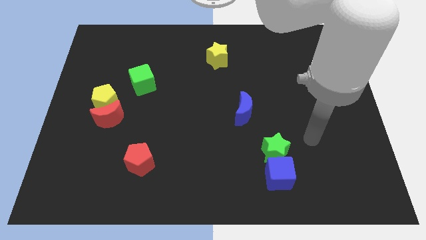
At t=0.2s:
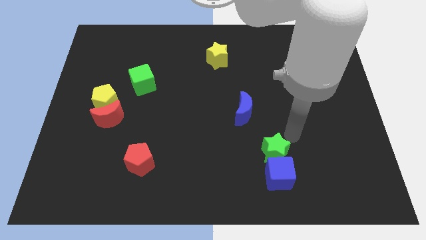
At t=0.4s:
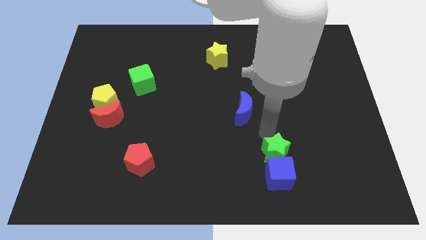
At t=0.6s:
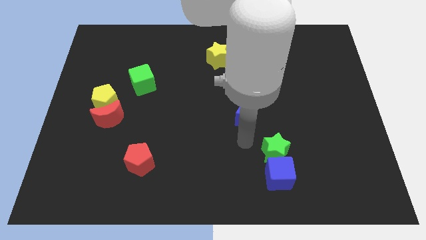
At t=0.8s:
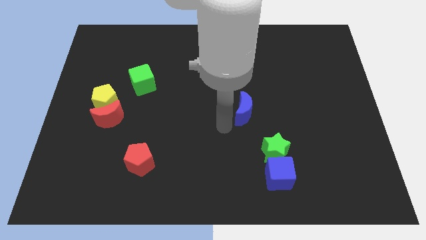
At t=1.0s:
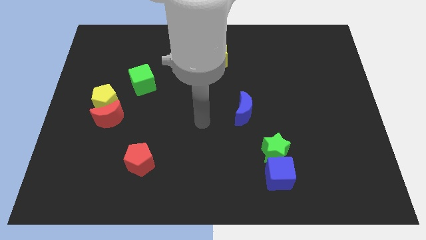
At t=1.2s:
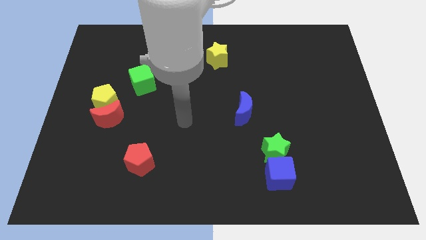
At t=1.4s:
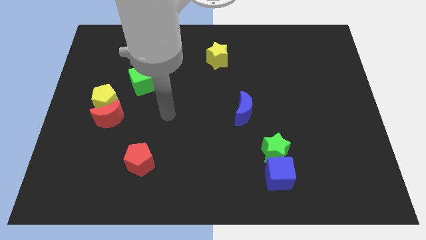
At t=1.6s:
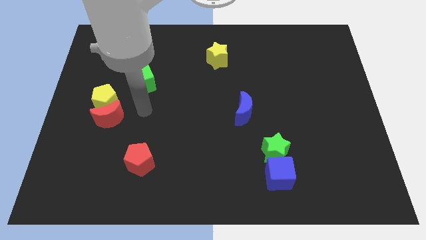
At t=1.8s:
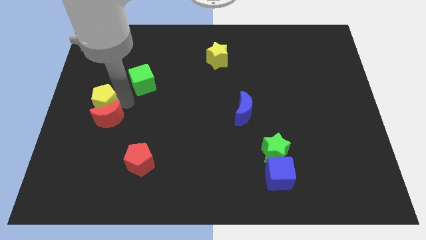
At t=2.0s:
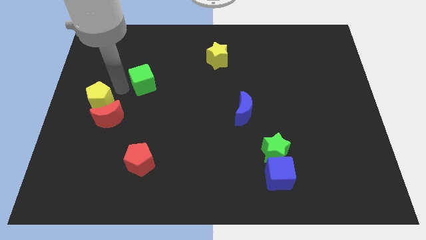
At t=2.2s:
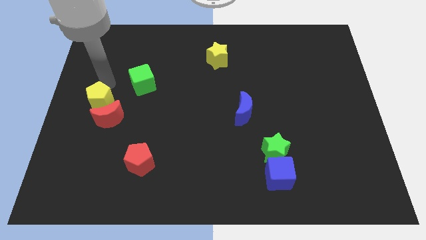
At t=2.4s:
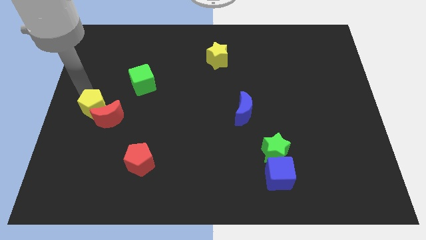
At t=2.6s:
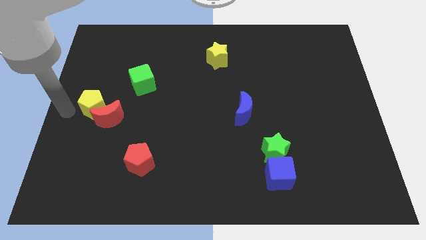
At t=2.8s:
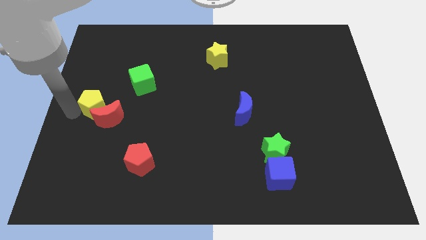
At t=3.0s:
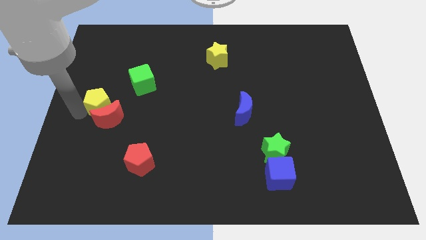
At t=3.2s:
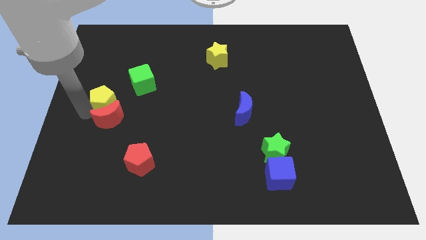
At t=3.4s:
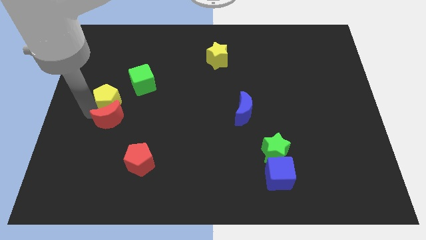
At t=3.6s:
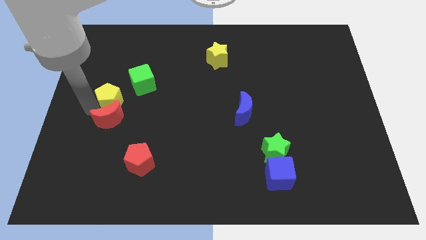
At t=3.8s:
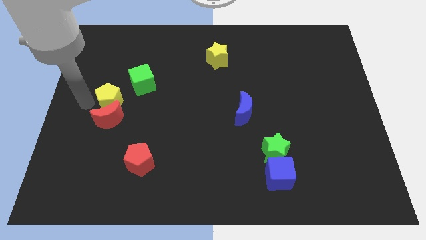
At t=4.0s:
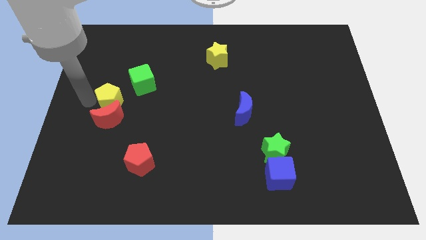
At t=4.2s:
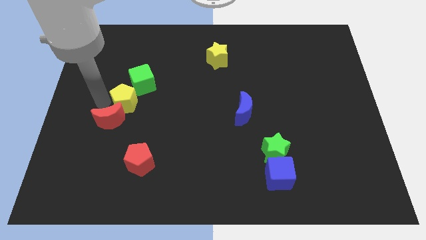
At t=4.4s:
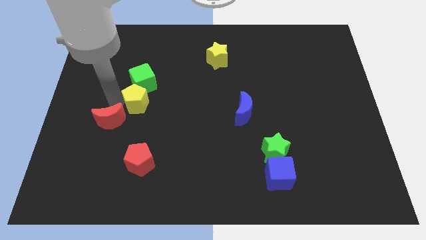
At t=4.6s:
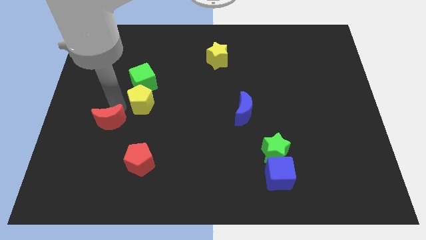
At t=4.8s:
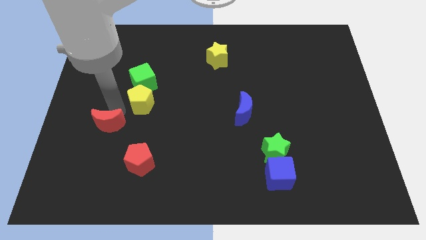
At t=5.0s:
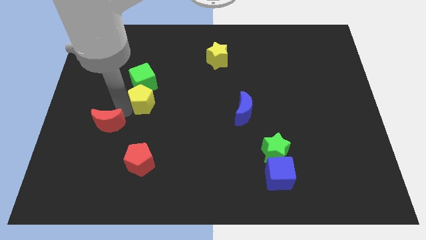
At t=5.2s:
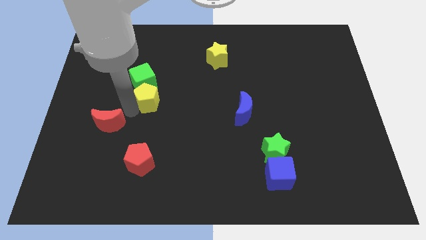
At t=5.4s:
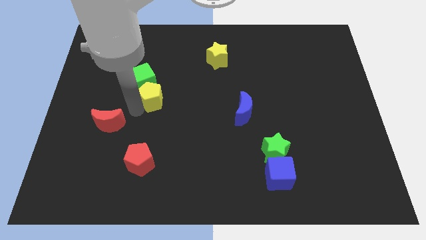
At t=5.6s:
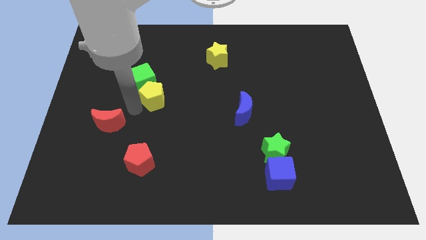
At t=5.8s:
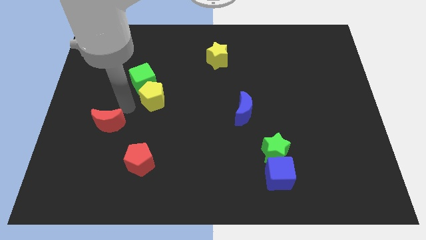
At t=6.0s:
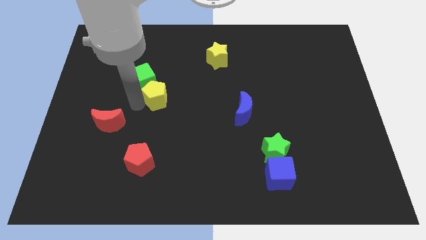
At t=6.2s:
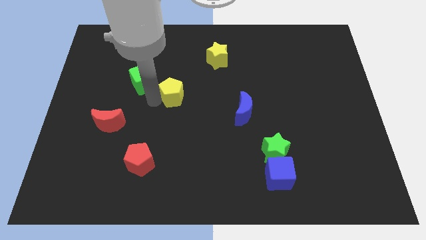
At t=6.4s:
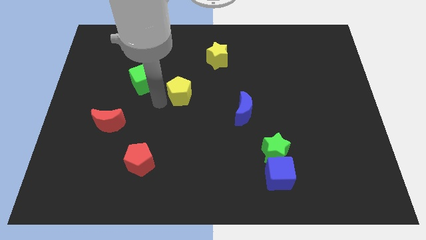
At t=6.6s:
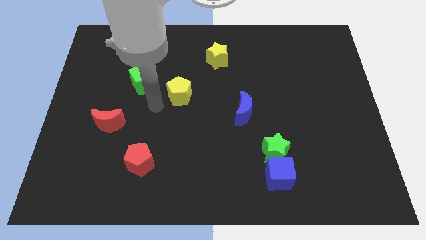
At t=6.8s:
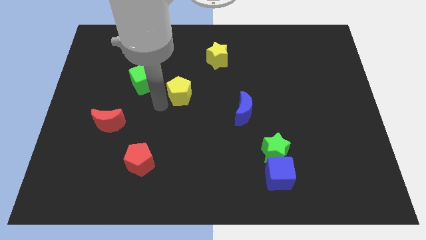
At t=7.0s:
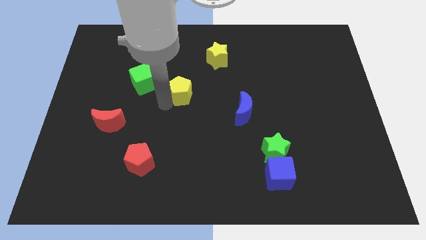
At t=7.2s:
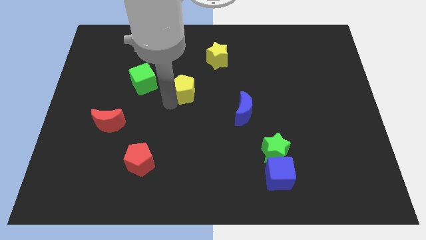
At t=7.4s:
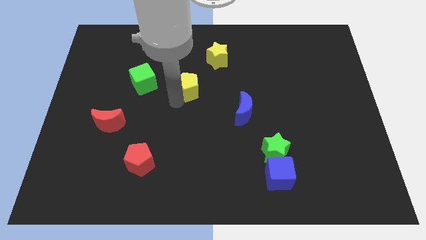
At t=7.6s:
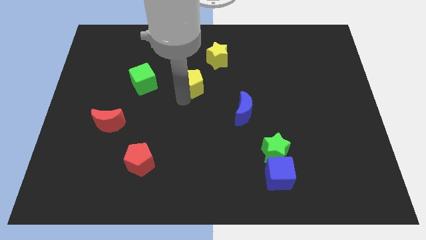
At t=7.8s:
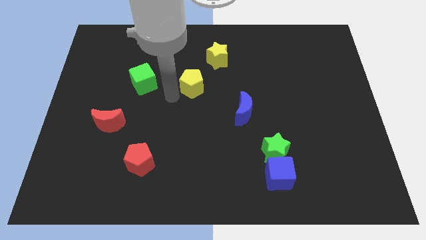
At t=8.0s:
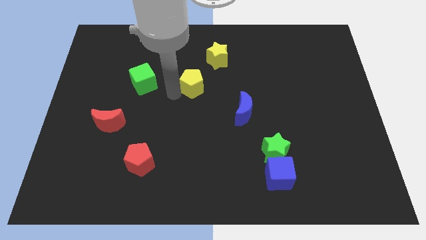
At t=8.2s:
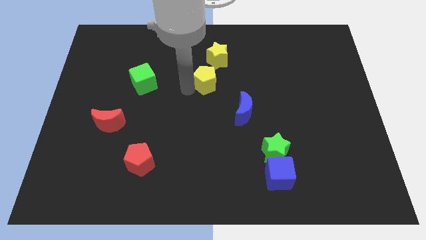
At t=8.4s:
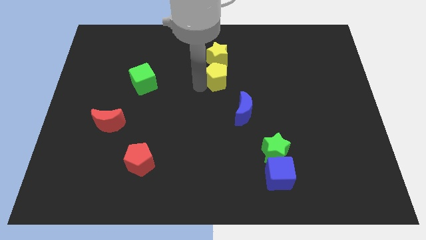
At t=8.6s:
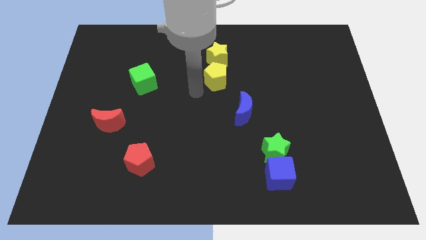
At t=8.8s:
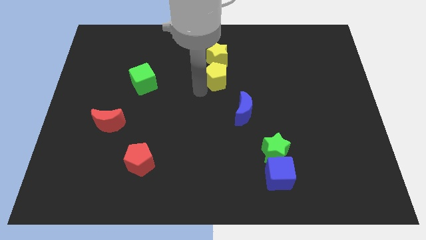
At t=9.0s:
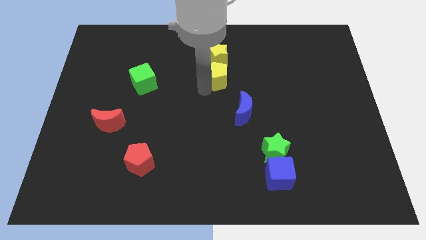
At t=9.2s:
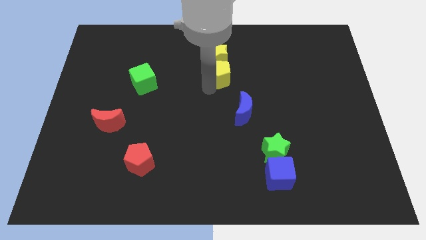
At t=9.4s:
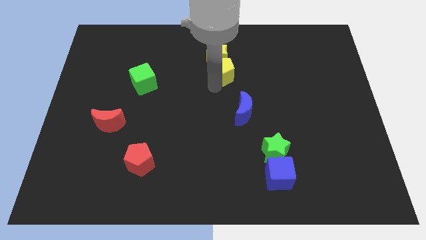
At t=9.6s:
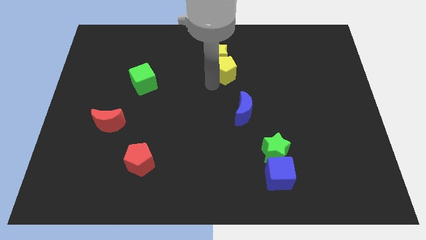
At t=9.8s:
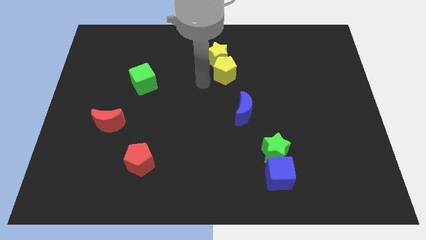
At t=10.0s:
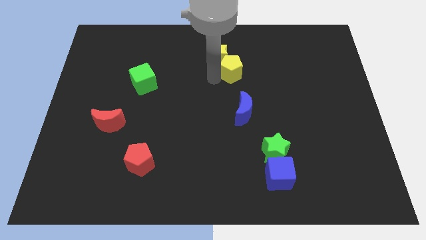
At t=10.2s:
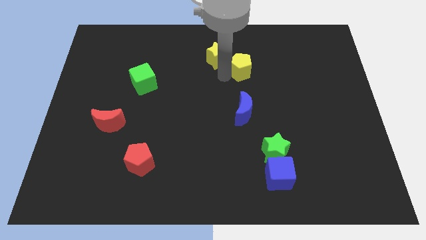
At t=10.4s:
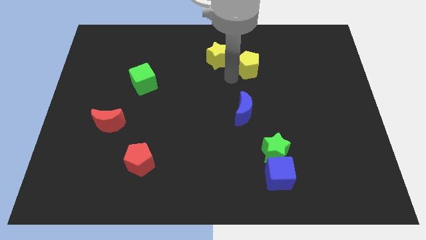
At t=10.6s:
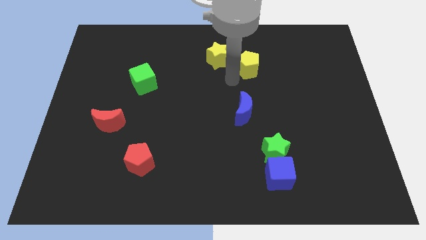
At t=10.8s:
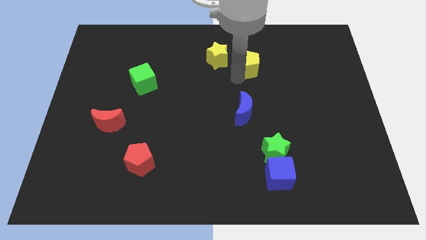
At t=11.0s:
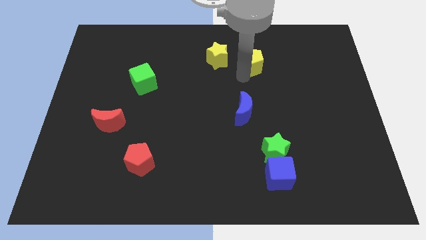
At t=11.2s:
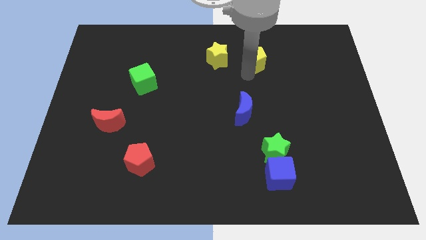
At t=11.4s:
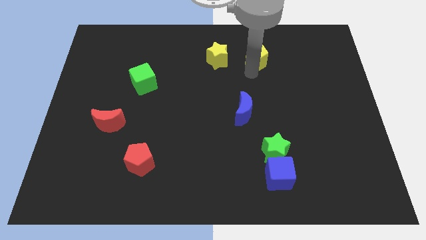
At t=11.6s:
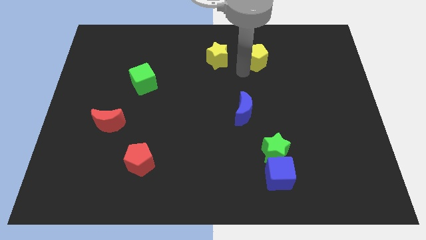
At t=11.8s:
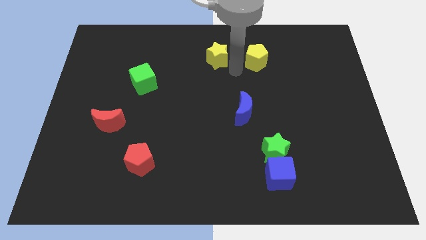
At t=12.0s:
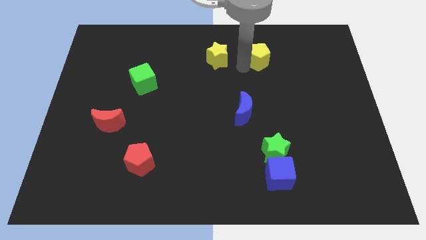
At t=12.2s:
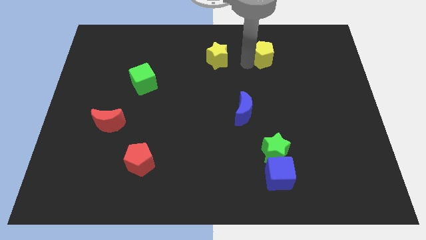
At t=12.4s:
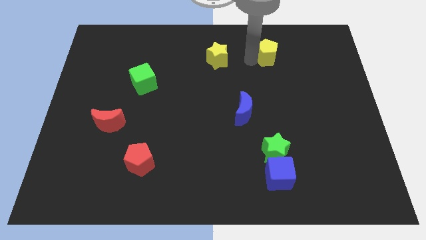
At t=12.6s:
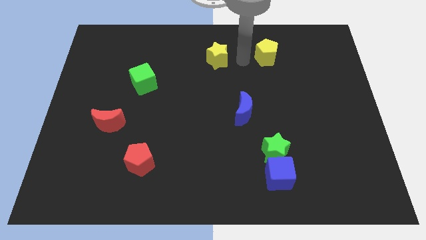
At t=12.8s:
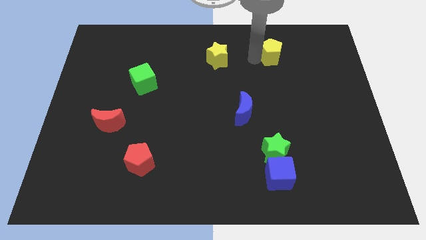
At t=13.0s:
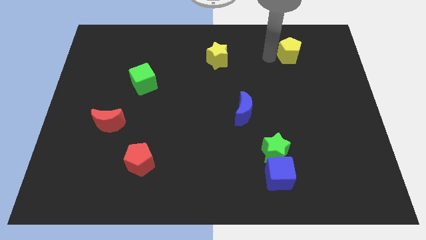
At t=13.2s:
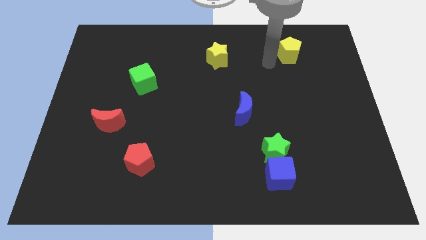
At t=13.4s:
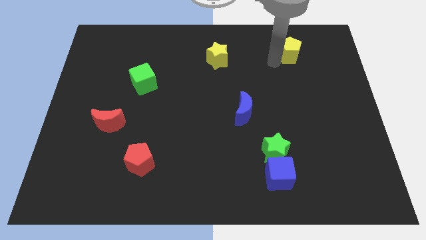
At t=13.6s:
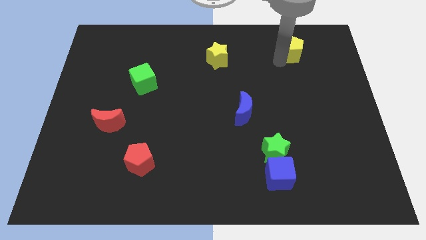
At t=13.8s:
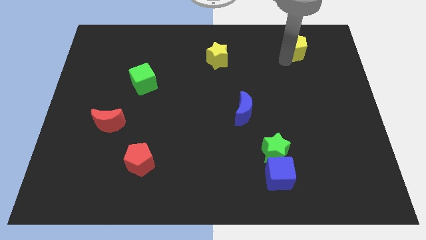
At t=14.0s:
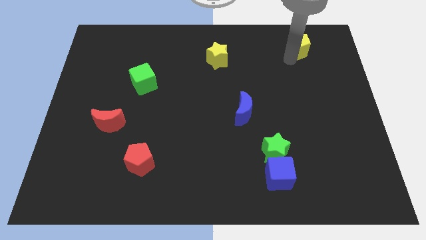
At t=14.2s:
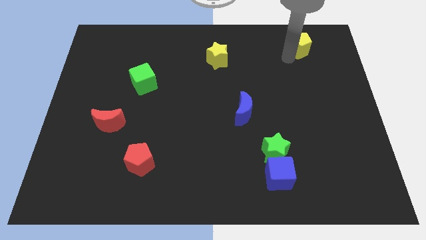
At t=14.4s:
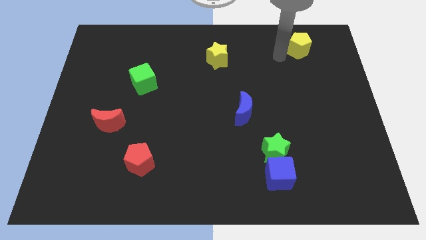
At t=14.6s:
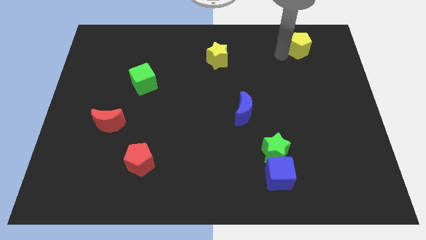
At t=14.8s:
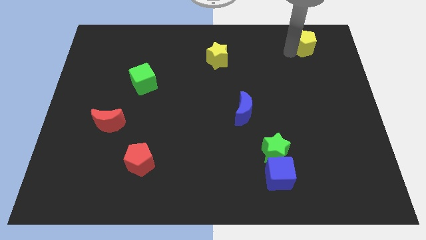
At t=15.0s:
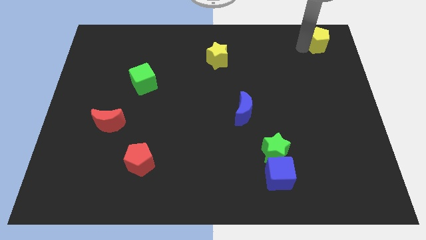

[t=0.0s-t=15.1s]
put the yellow pentagon to the top right of the board
